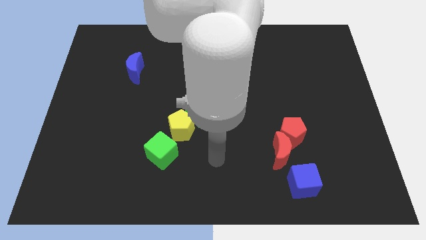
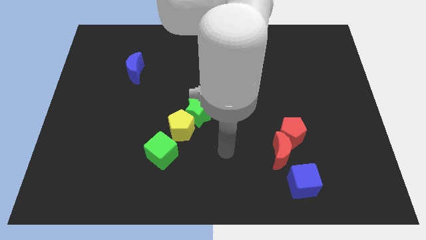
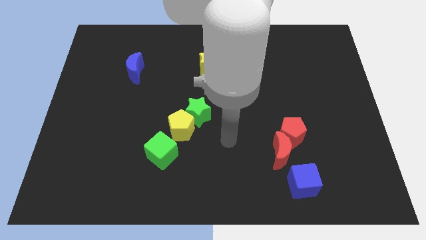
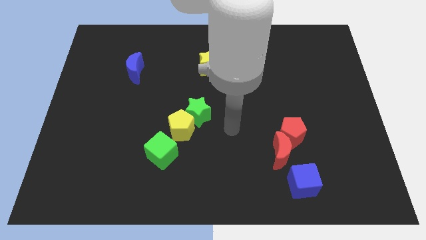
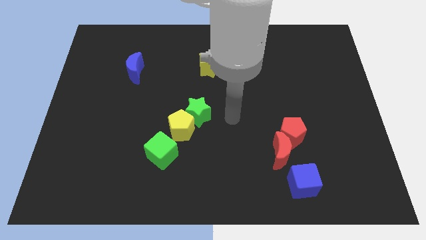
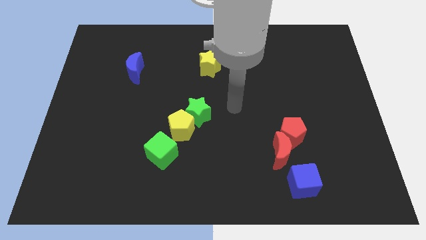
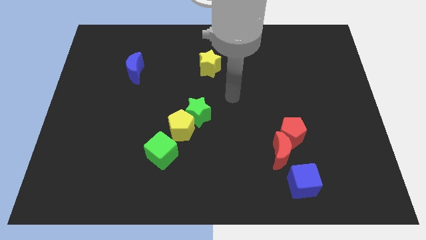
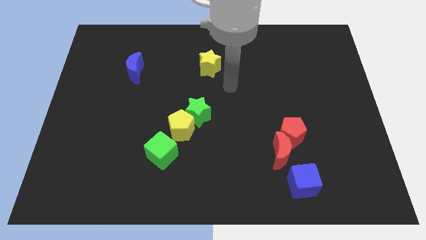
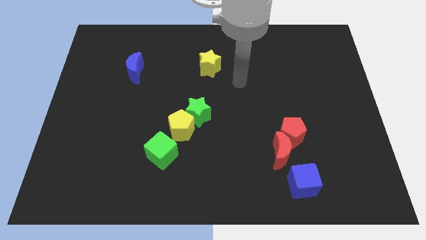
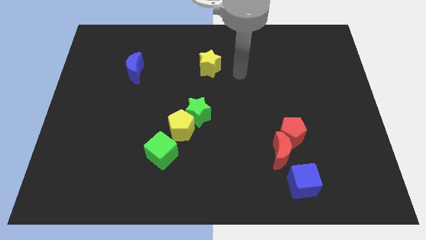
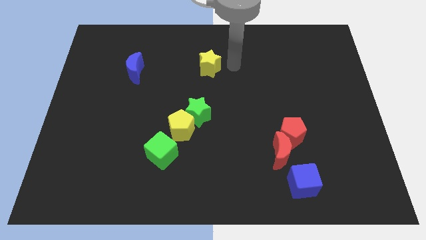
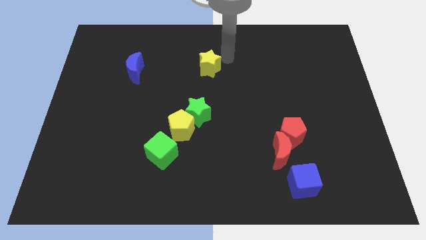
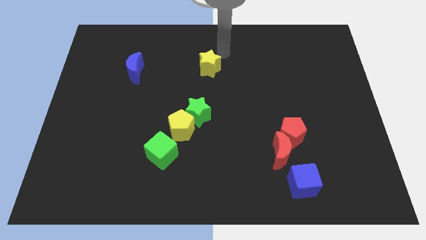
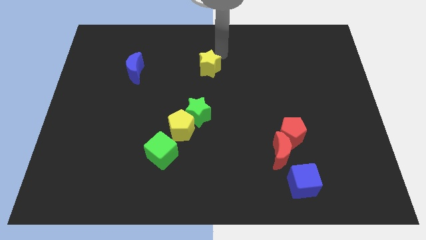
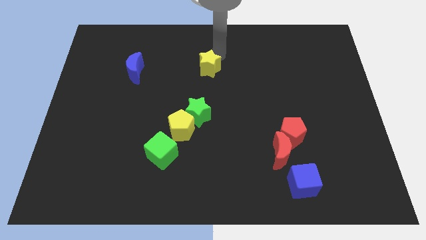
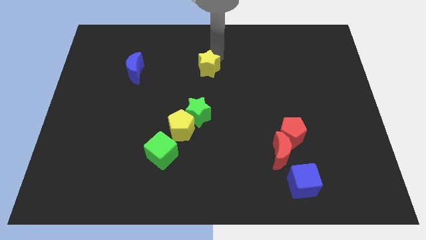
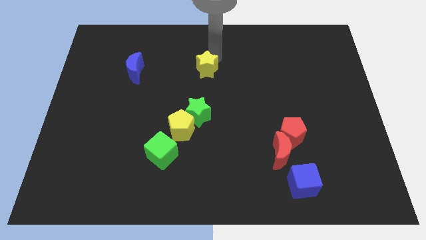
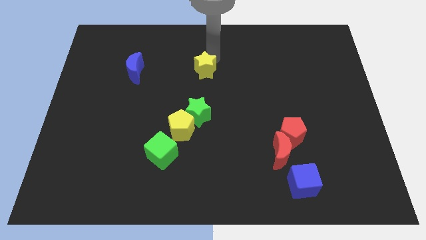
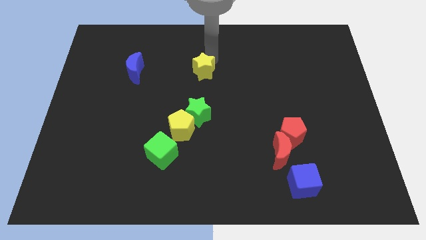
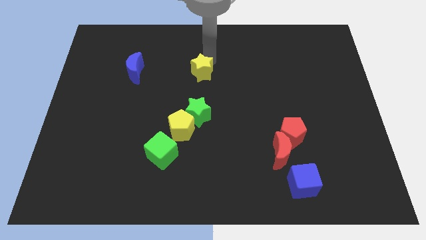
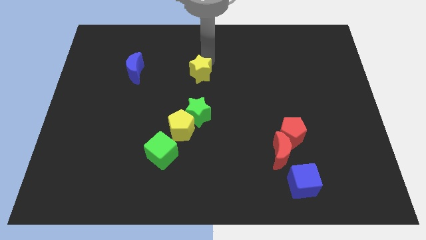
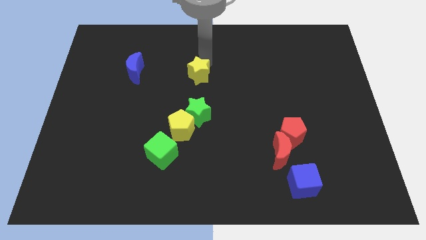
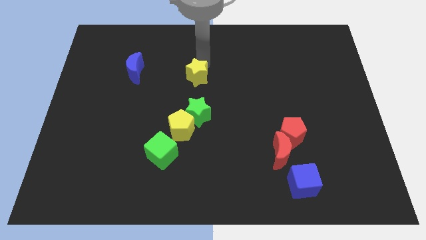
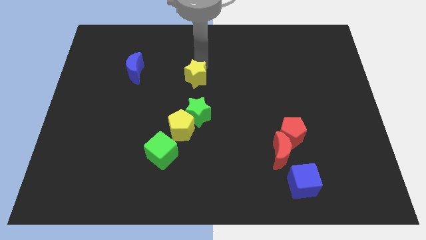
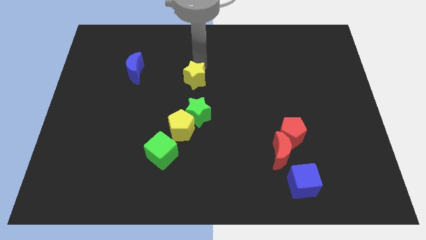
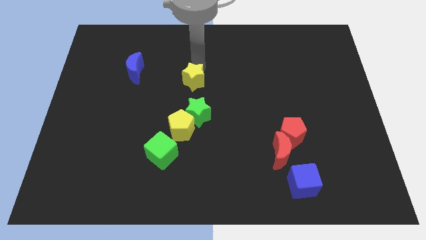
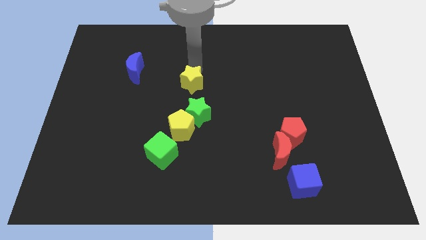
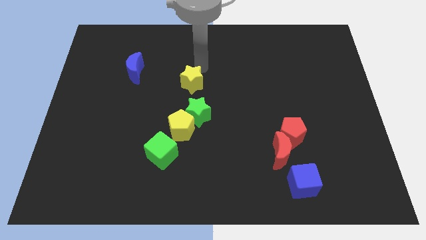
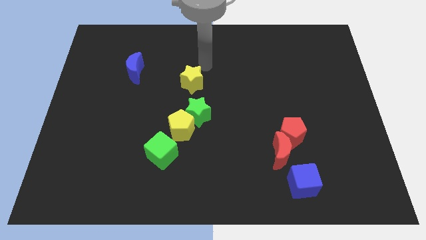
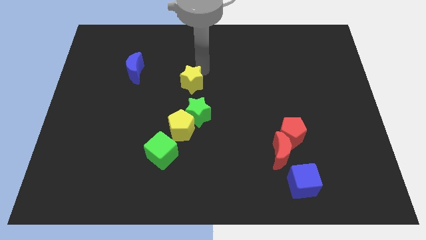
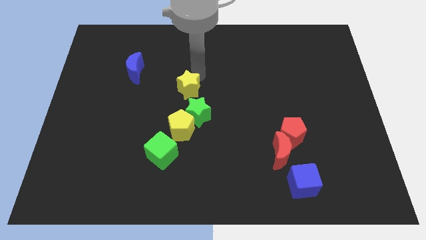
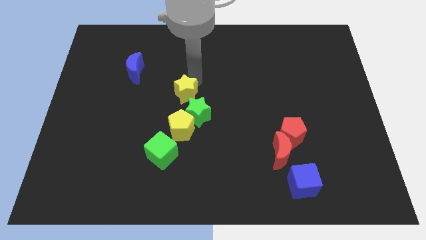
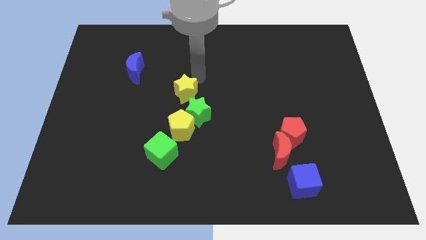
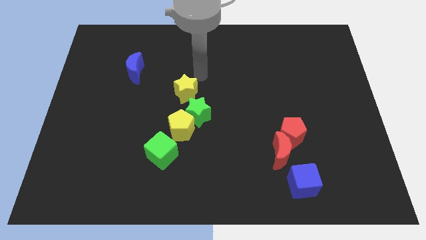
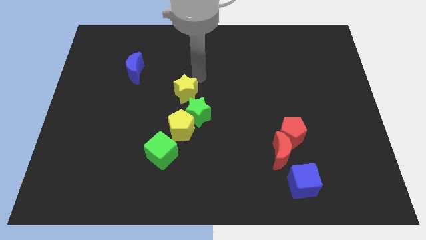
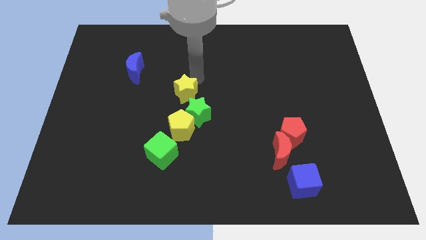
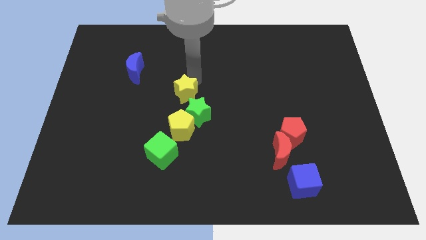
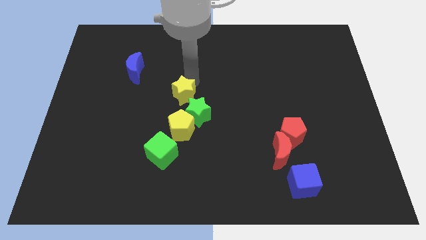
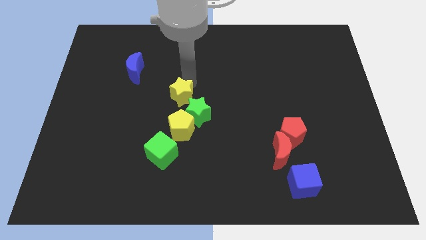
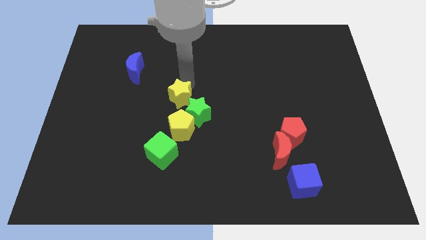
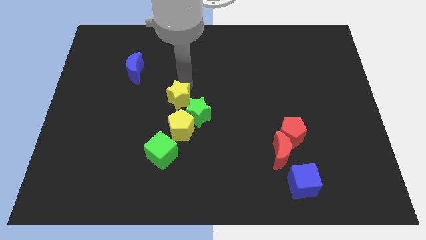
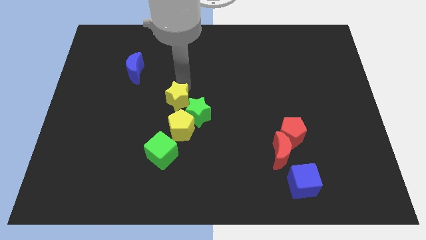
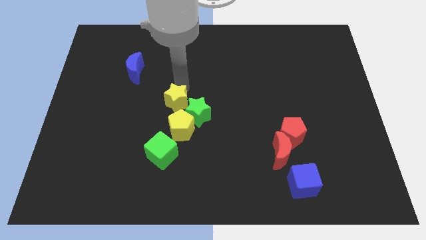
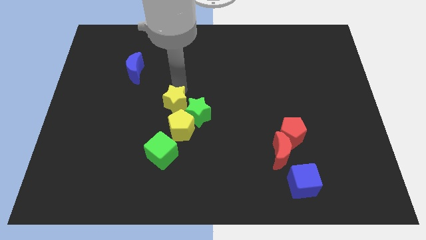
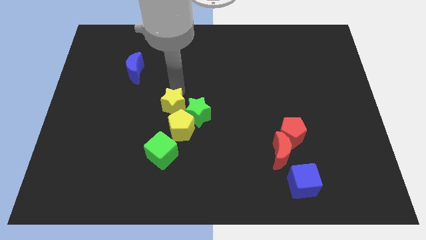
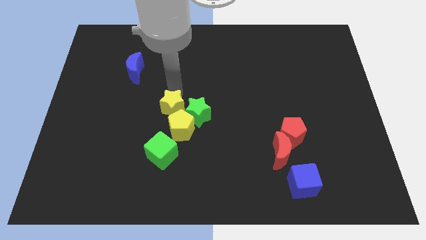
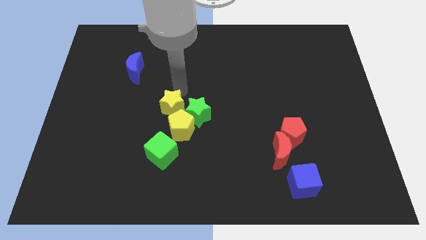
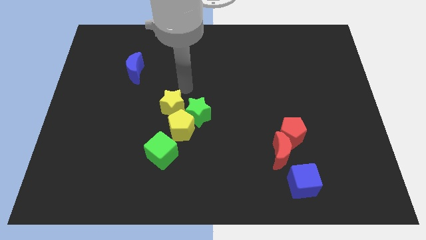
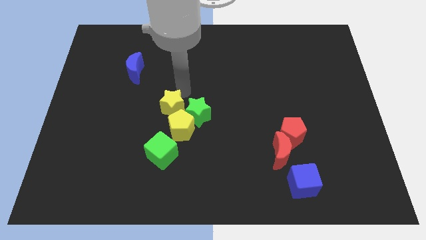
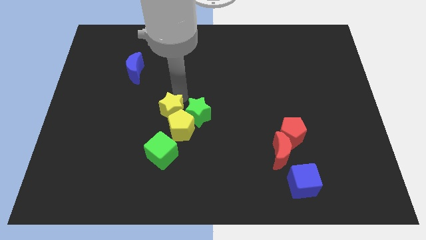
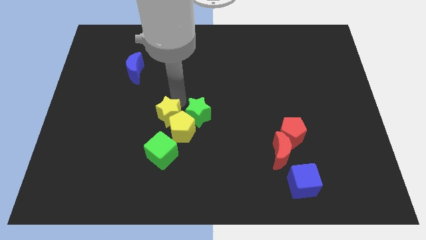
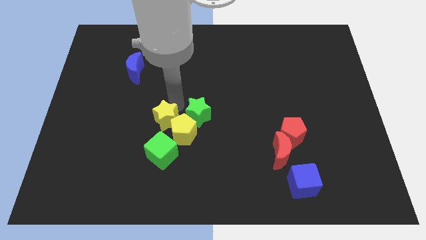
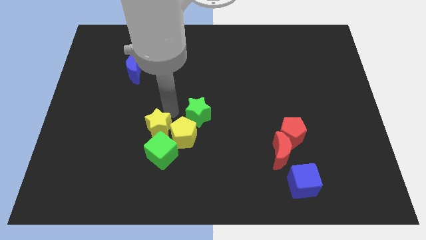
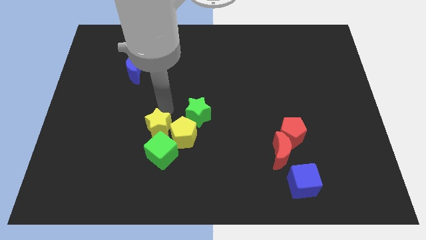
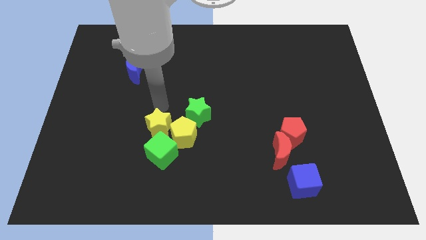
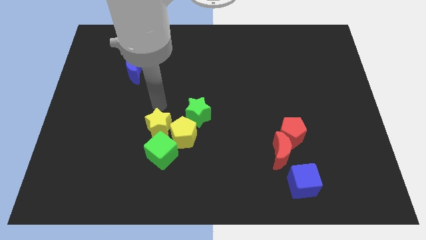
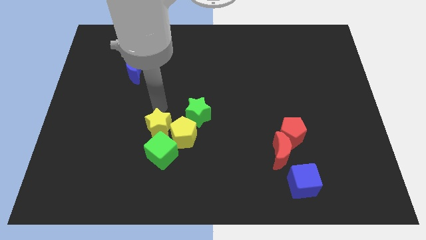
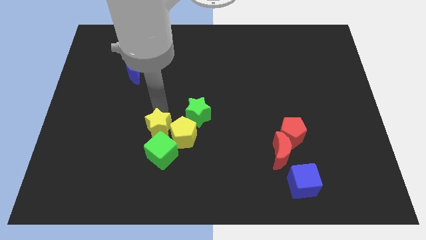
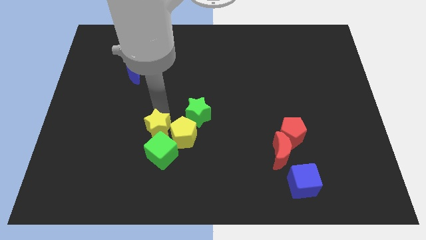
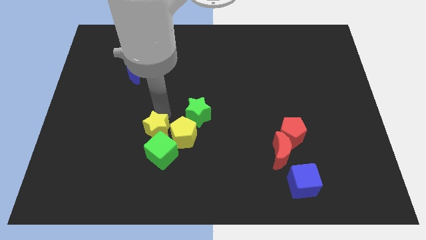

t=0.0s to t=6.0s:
move the yellow star close to the green cube

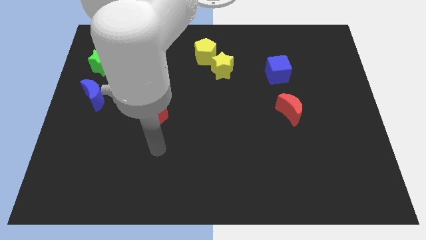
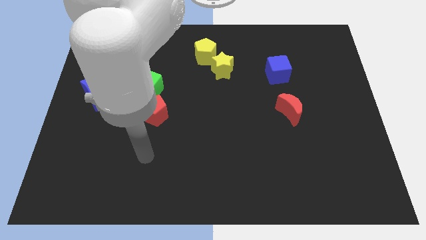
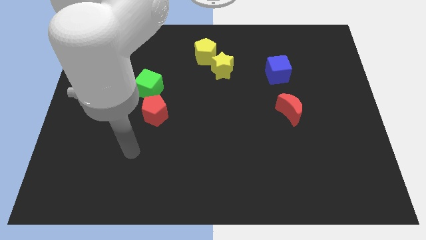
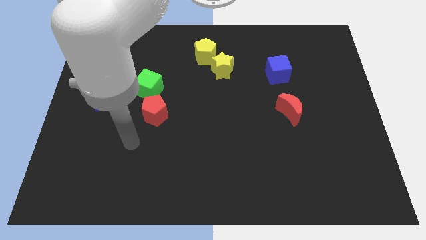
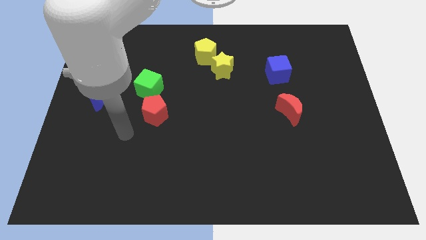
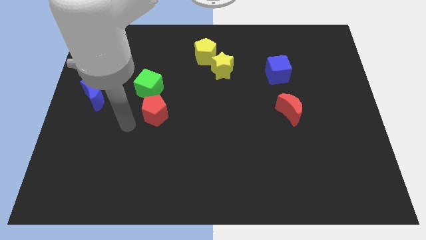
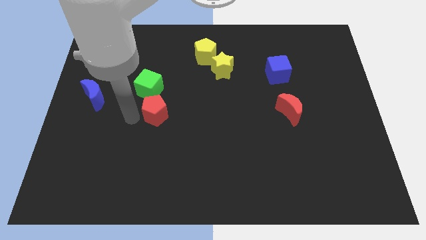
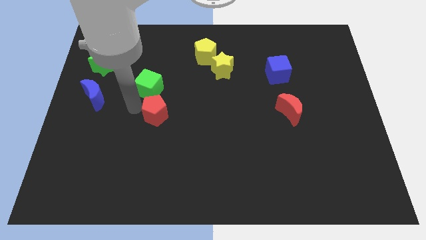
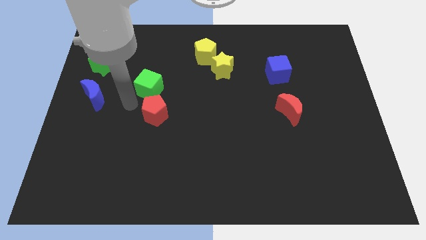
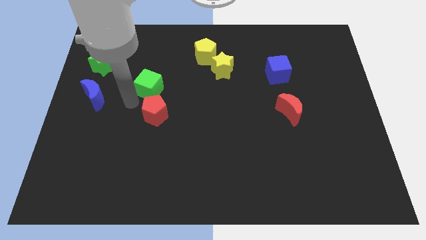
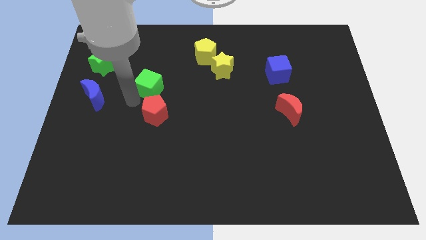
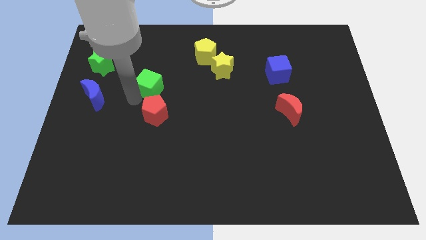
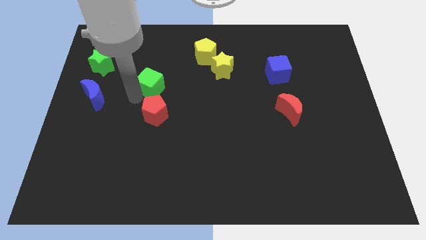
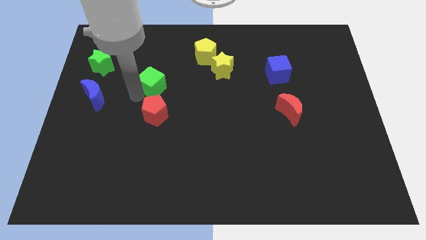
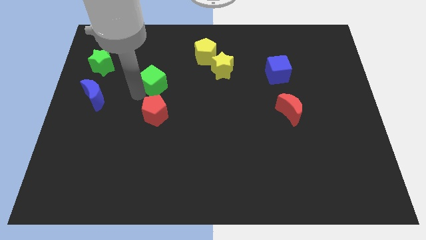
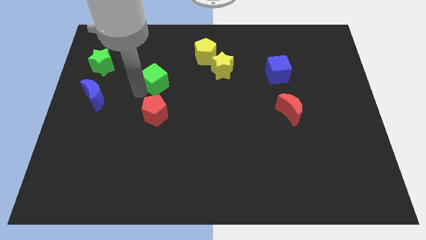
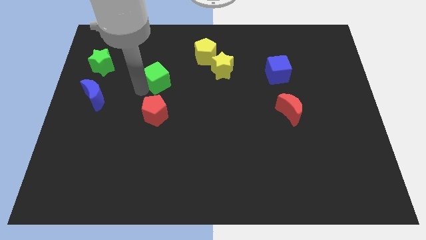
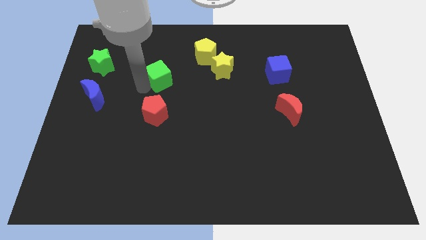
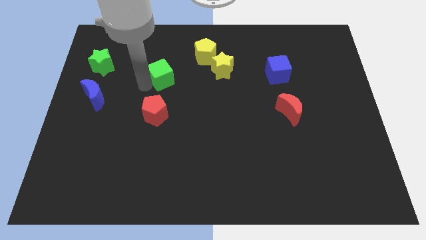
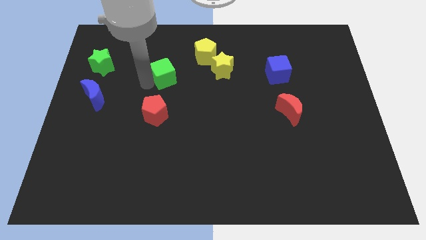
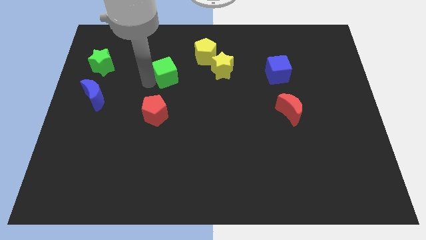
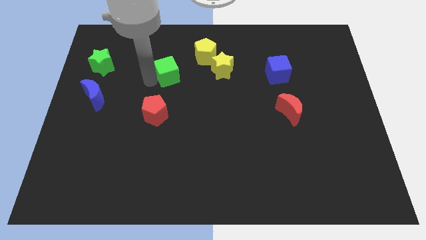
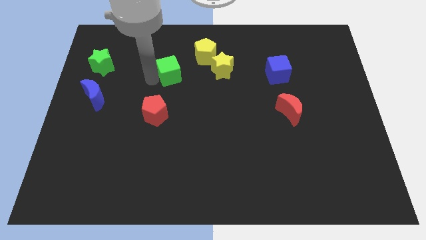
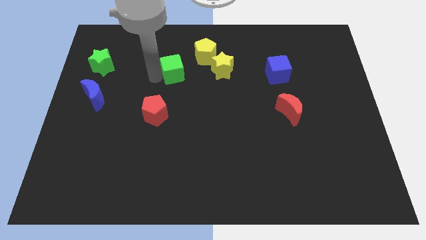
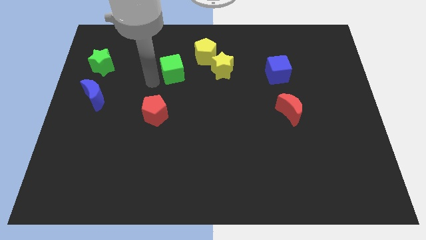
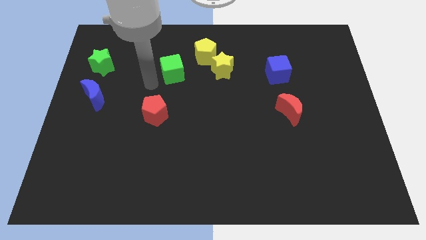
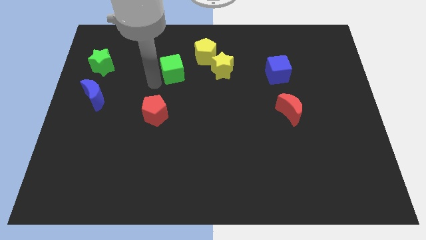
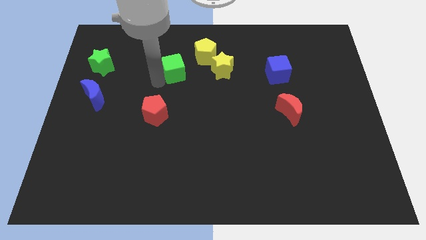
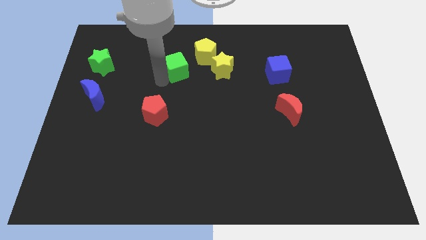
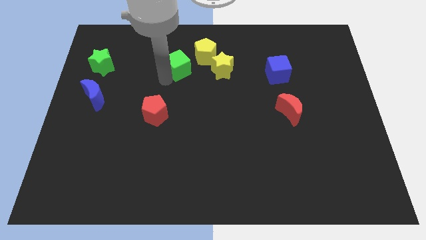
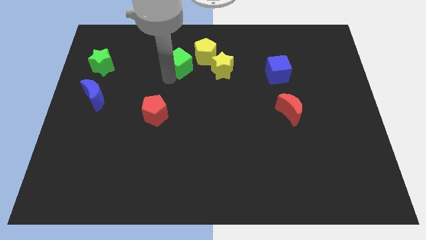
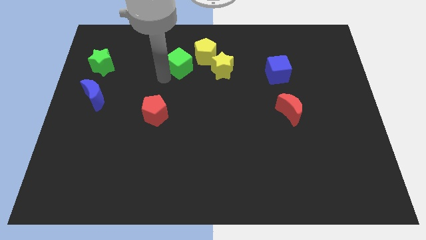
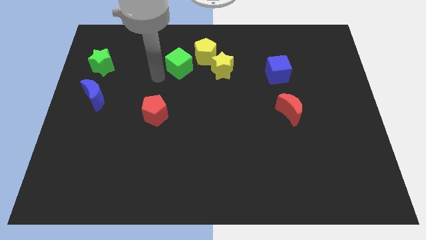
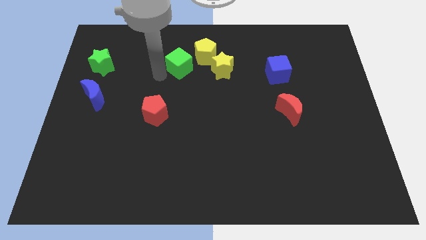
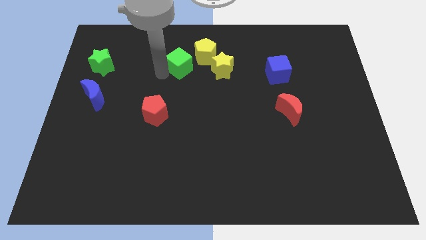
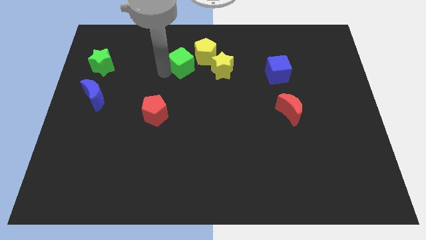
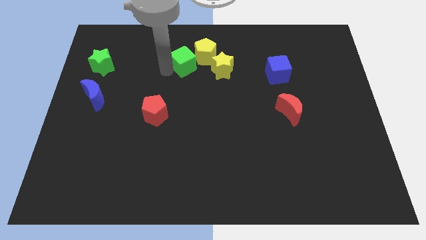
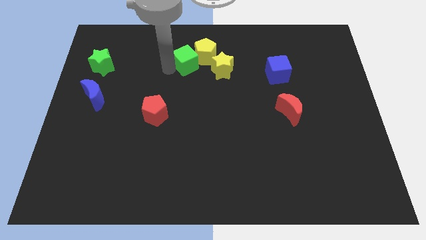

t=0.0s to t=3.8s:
move the green cube towards the yellow pentagon
